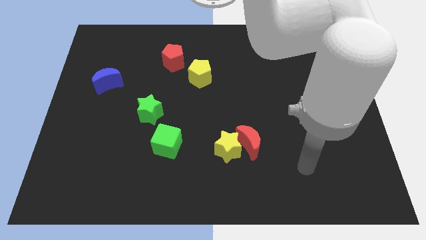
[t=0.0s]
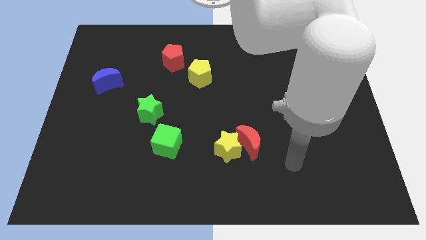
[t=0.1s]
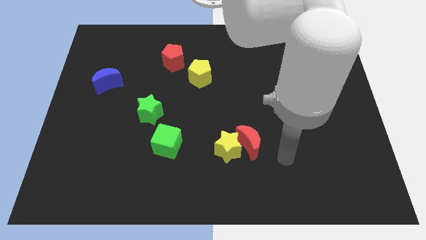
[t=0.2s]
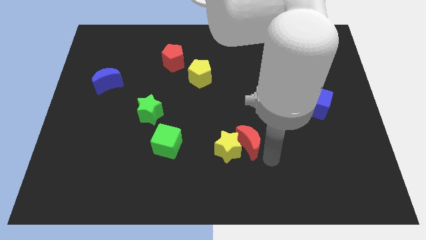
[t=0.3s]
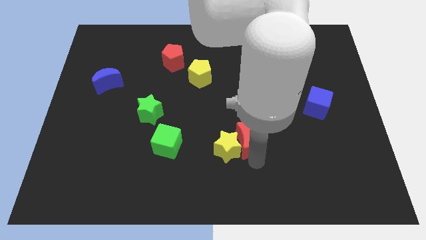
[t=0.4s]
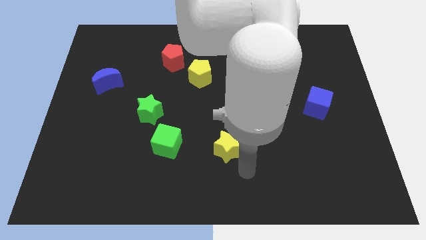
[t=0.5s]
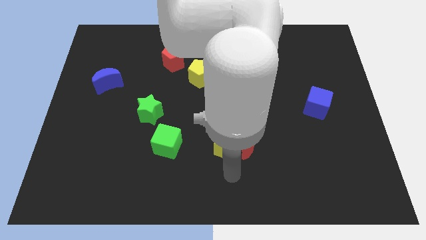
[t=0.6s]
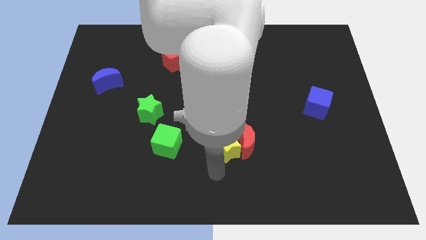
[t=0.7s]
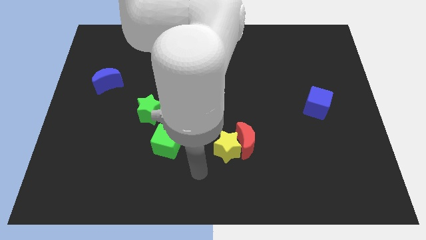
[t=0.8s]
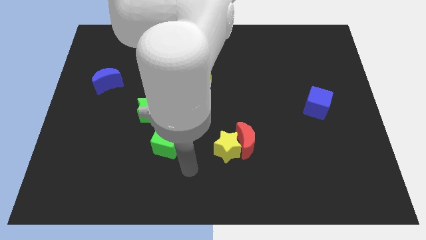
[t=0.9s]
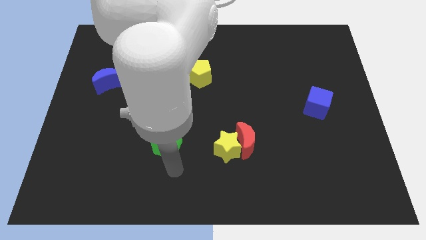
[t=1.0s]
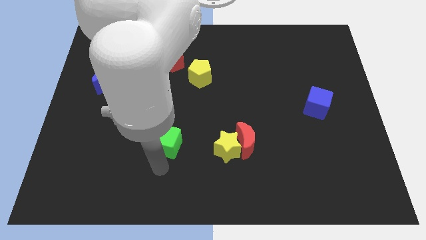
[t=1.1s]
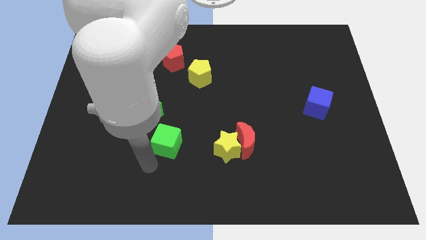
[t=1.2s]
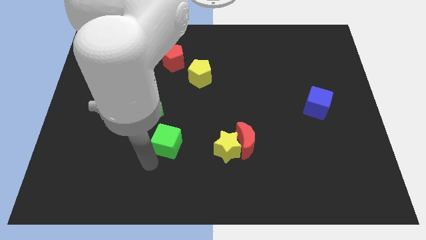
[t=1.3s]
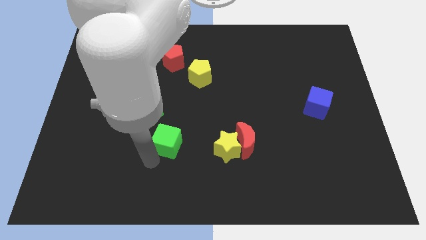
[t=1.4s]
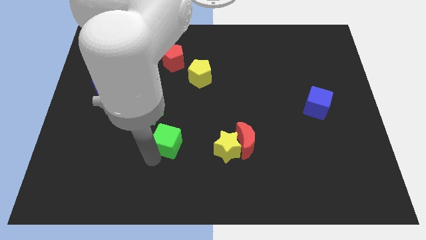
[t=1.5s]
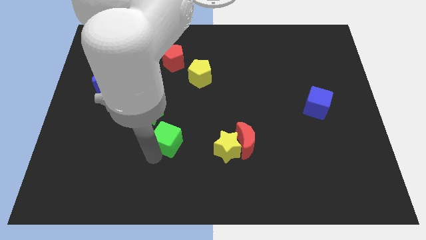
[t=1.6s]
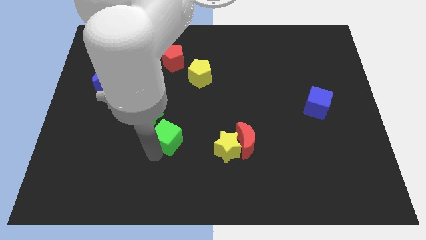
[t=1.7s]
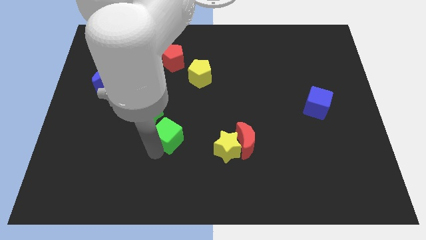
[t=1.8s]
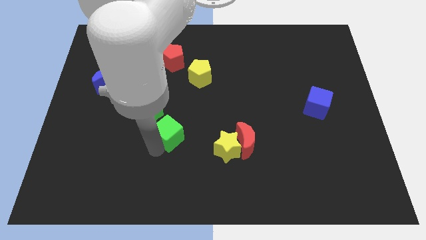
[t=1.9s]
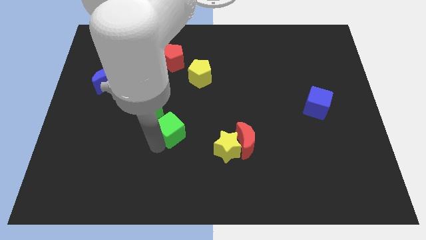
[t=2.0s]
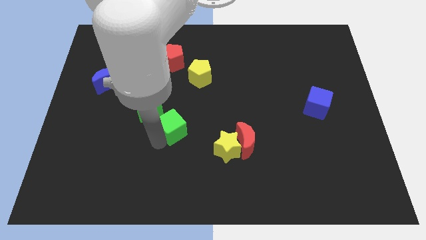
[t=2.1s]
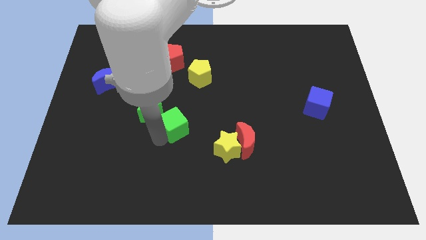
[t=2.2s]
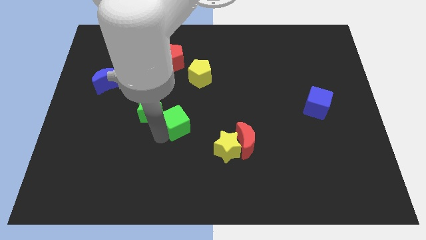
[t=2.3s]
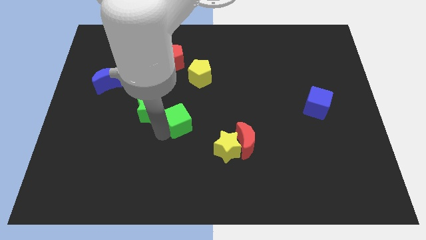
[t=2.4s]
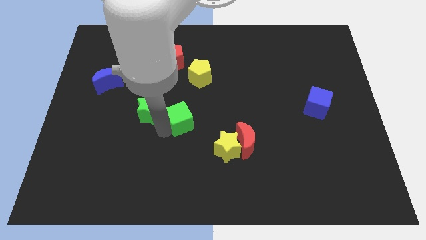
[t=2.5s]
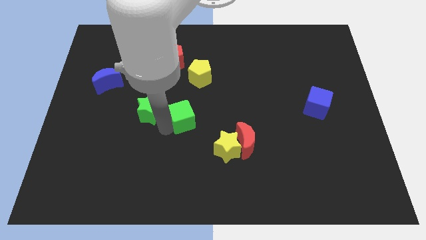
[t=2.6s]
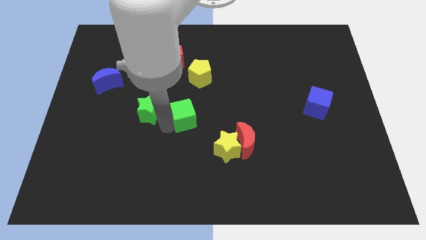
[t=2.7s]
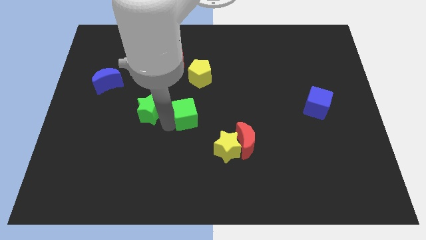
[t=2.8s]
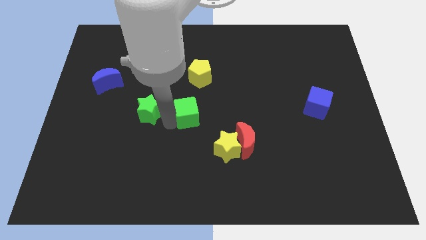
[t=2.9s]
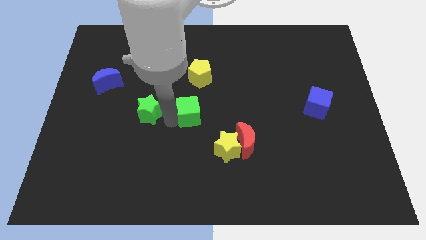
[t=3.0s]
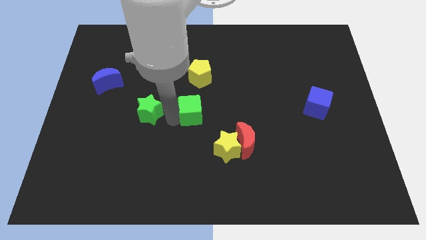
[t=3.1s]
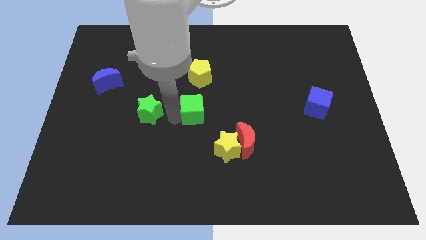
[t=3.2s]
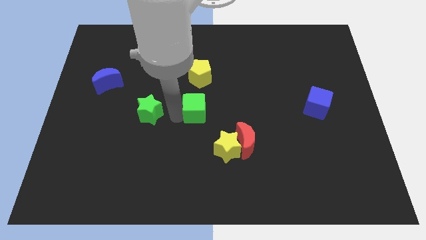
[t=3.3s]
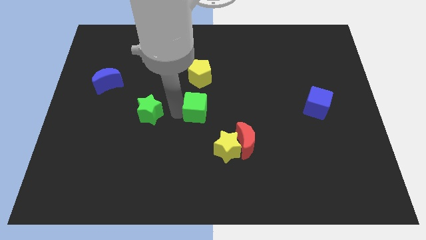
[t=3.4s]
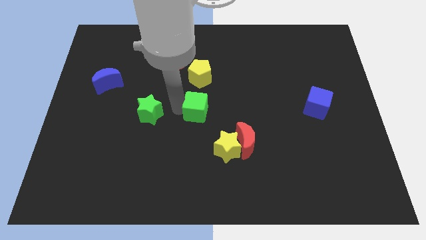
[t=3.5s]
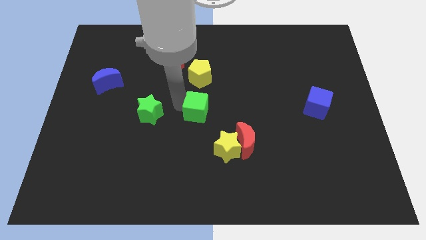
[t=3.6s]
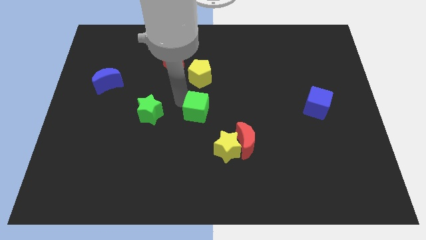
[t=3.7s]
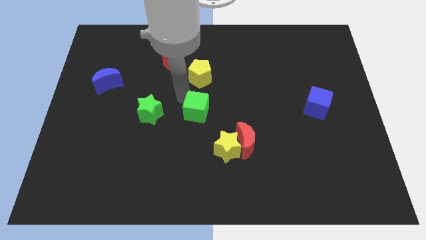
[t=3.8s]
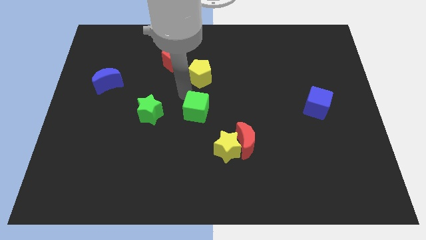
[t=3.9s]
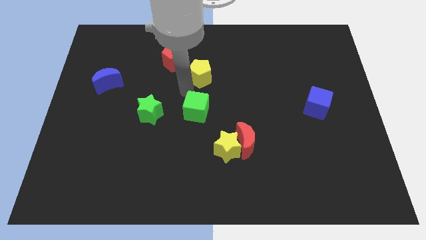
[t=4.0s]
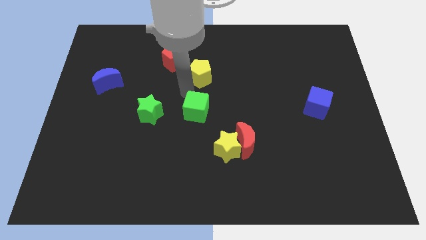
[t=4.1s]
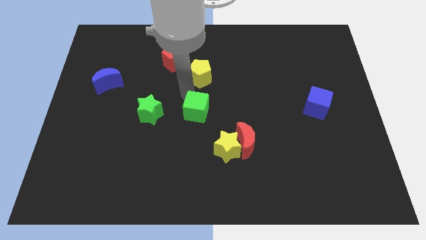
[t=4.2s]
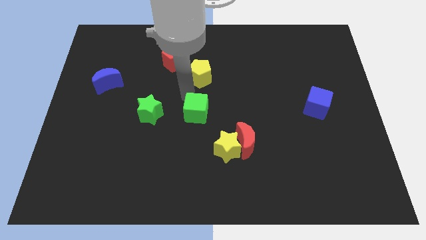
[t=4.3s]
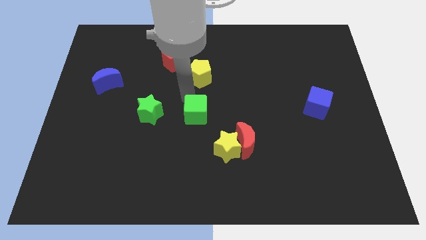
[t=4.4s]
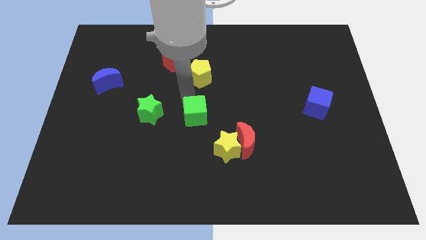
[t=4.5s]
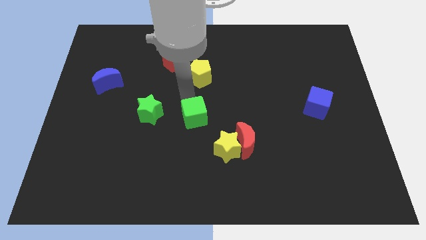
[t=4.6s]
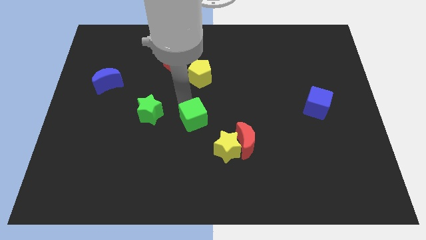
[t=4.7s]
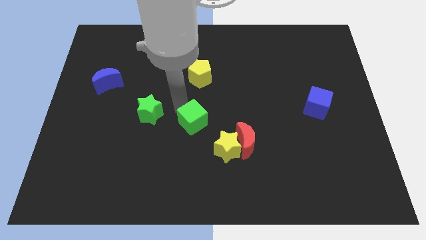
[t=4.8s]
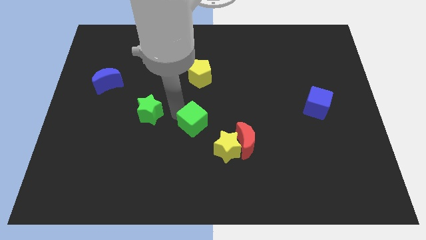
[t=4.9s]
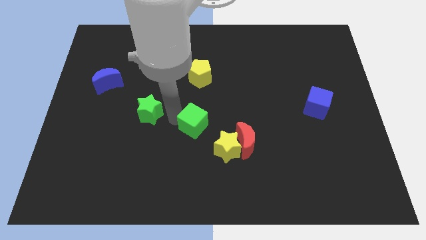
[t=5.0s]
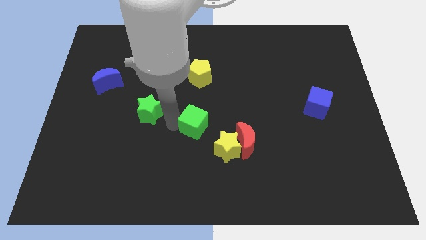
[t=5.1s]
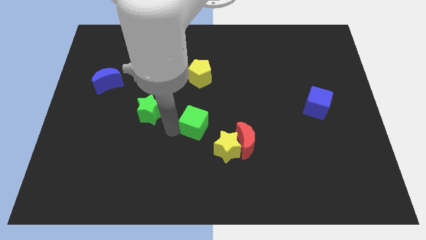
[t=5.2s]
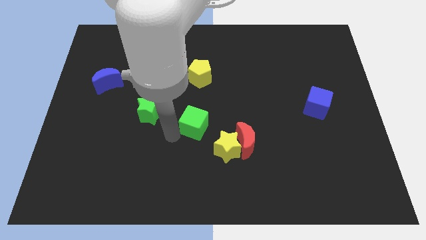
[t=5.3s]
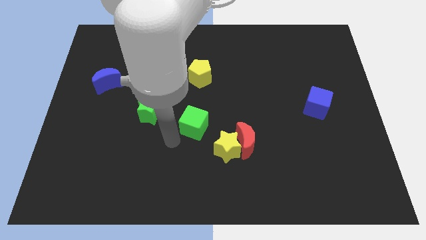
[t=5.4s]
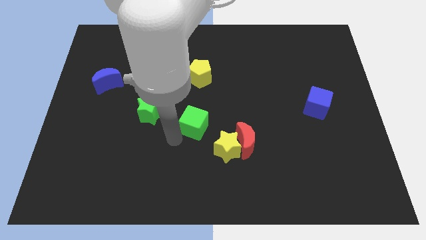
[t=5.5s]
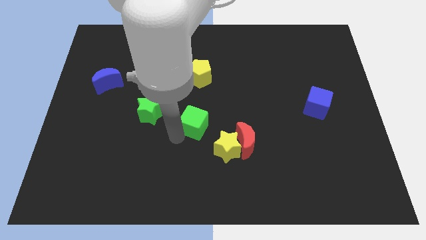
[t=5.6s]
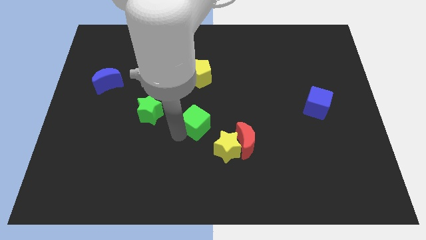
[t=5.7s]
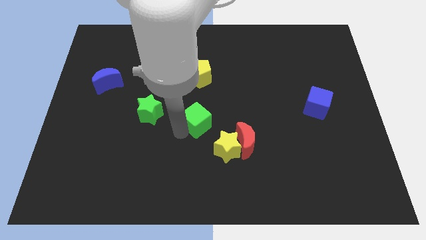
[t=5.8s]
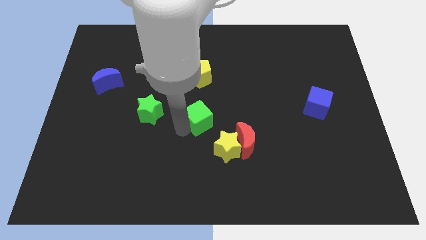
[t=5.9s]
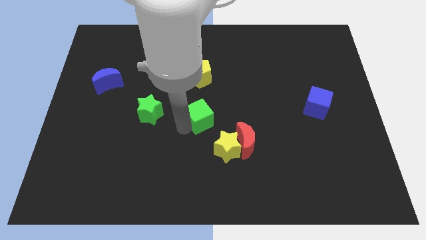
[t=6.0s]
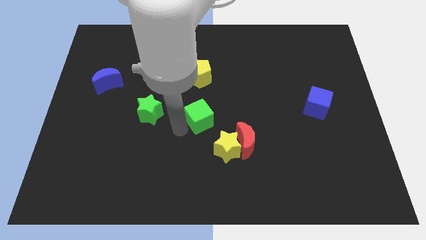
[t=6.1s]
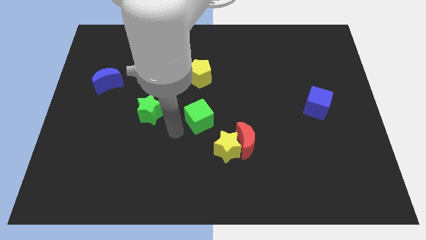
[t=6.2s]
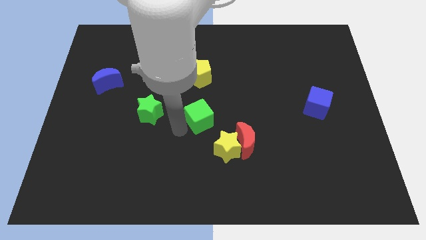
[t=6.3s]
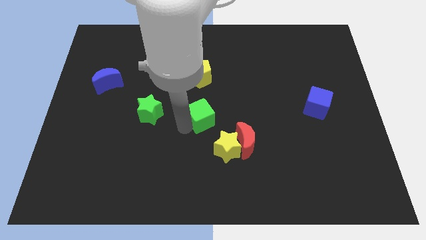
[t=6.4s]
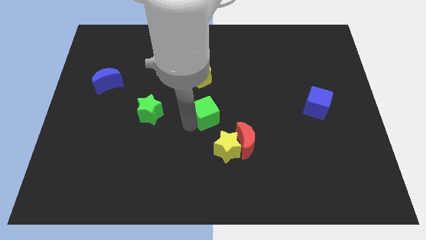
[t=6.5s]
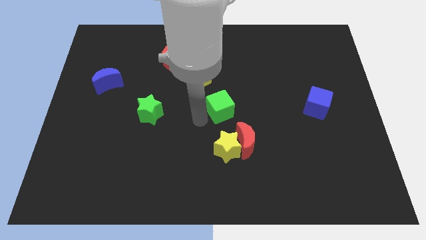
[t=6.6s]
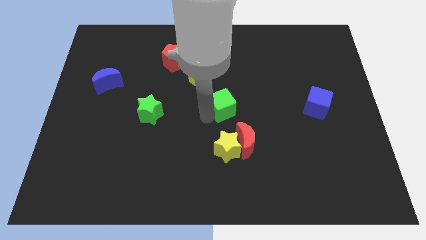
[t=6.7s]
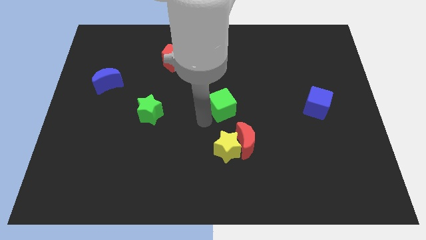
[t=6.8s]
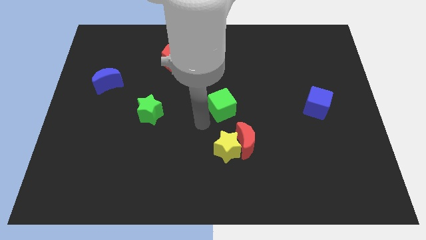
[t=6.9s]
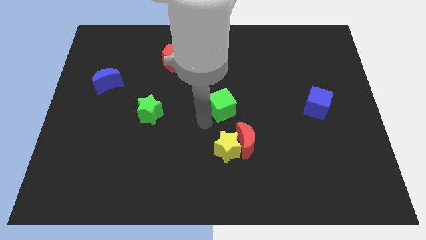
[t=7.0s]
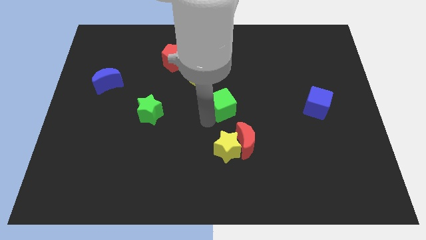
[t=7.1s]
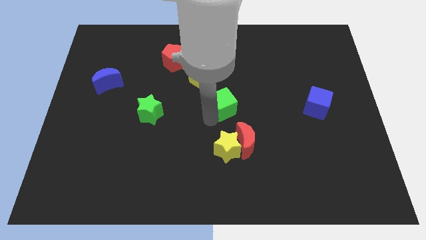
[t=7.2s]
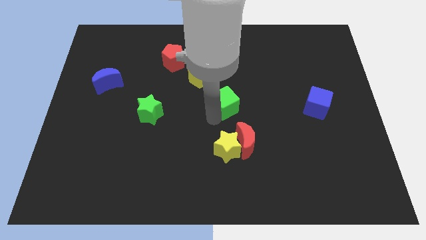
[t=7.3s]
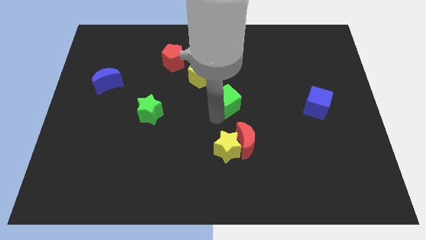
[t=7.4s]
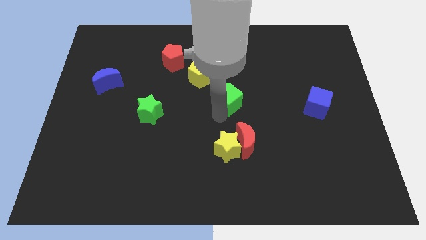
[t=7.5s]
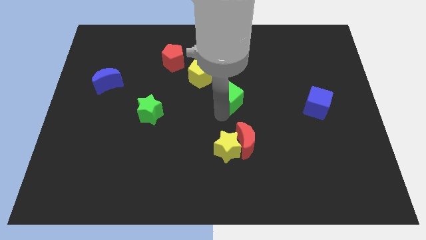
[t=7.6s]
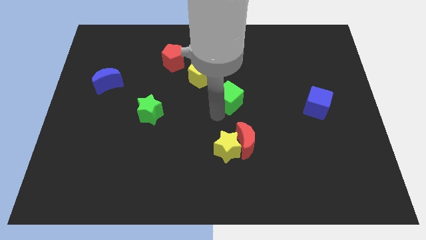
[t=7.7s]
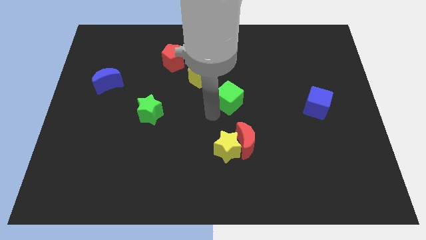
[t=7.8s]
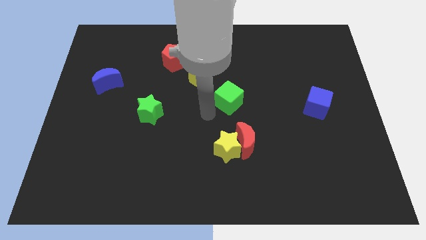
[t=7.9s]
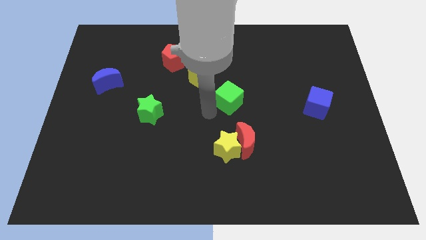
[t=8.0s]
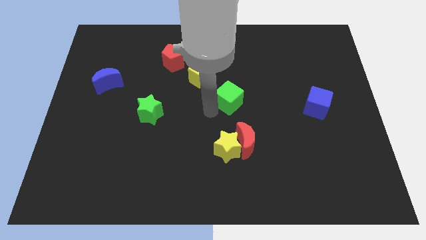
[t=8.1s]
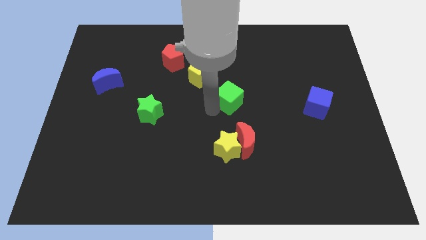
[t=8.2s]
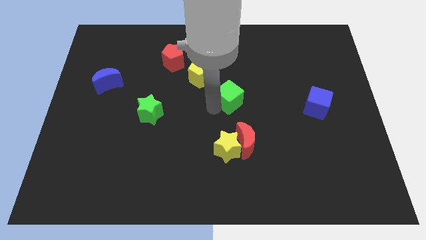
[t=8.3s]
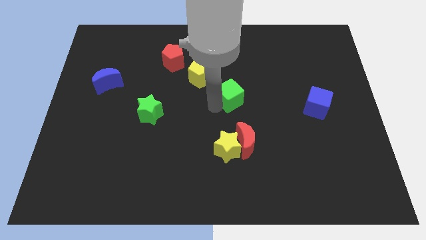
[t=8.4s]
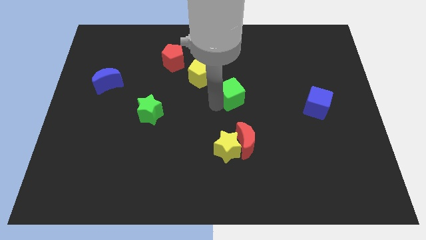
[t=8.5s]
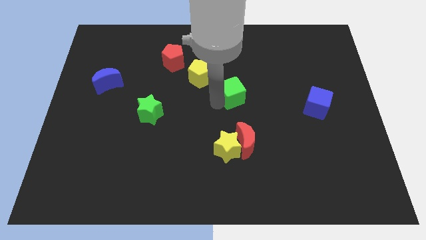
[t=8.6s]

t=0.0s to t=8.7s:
slide the green cube upwards and right
